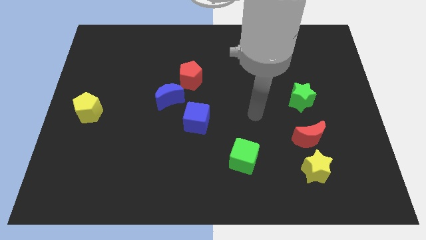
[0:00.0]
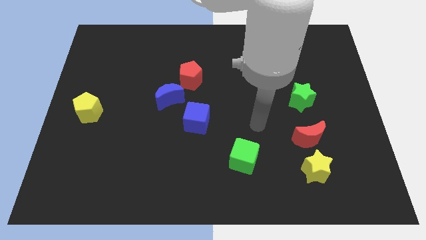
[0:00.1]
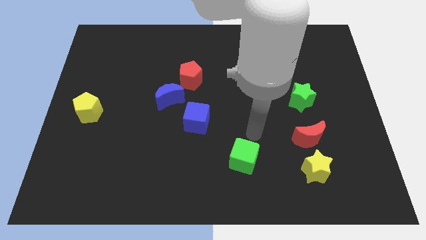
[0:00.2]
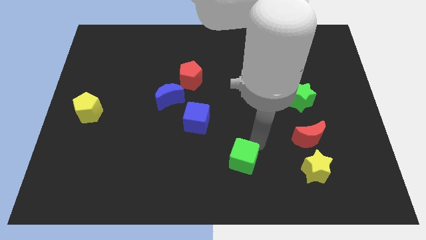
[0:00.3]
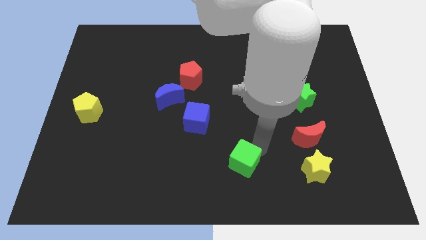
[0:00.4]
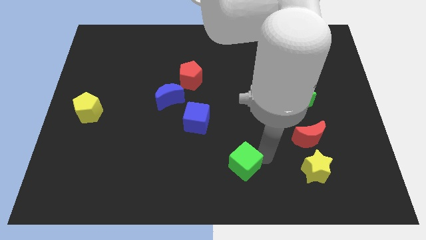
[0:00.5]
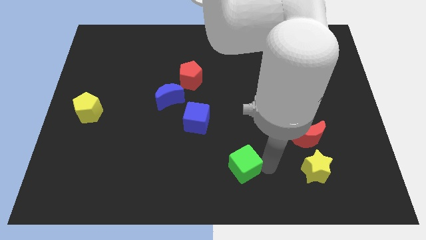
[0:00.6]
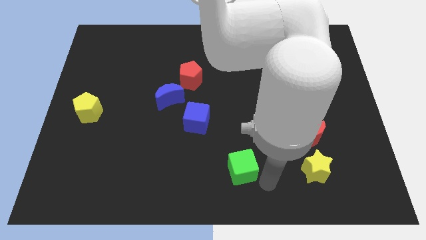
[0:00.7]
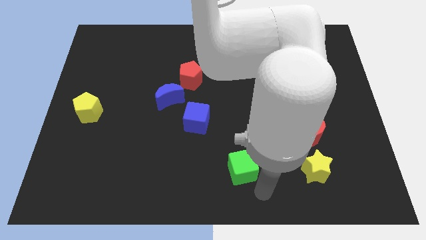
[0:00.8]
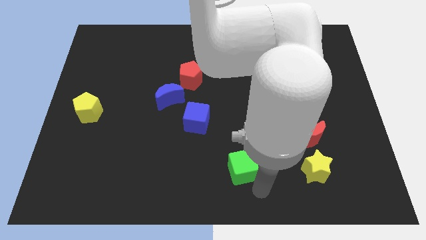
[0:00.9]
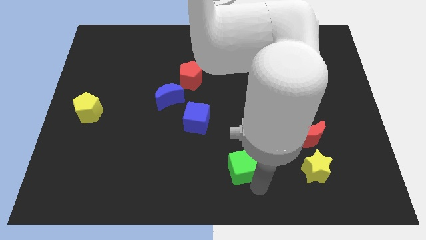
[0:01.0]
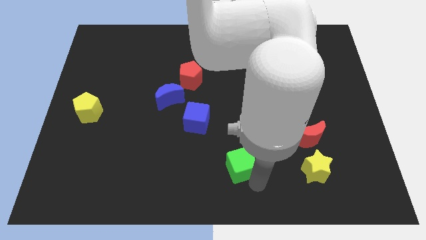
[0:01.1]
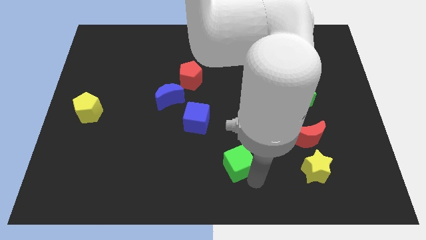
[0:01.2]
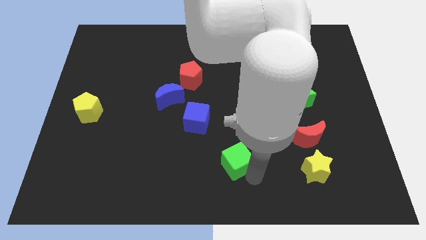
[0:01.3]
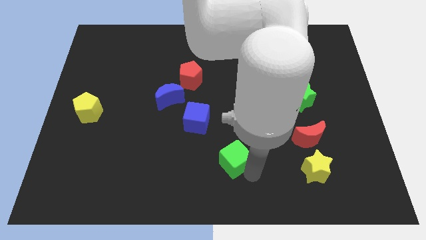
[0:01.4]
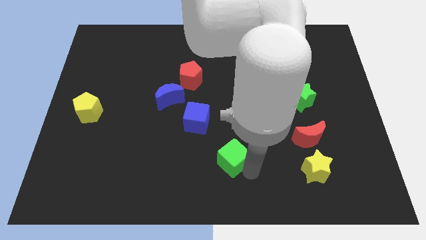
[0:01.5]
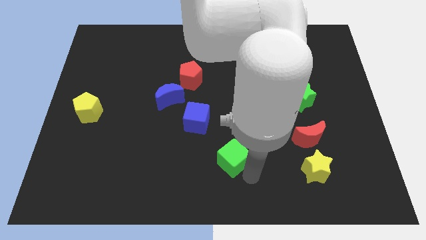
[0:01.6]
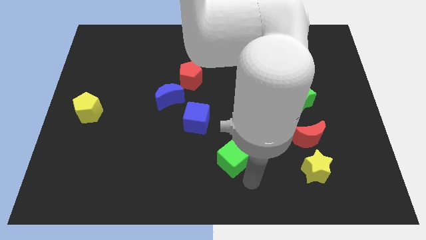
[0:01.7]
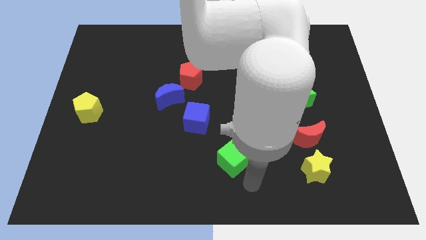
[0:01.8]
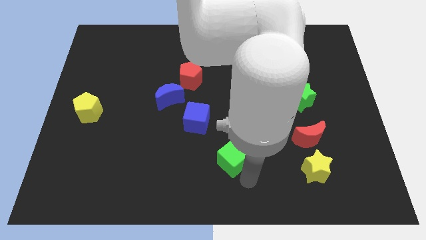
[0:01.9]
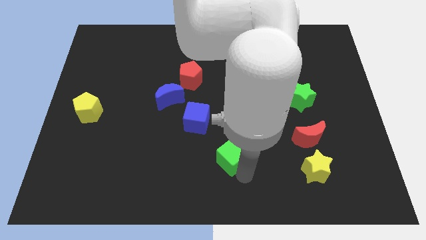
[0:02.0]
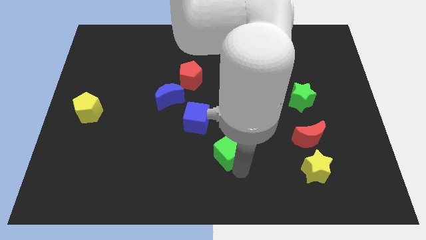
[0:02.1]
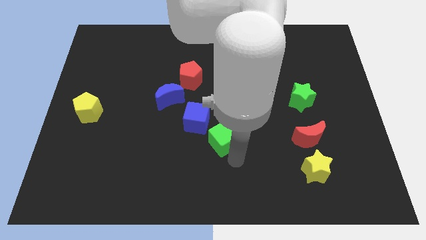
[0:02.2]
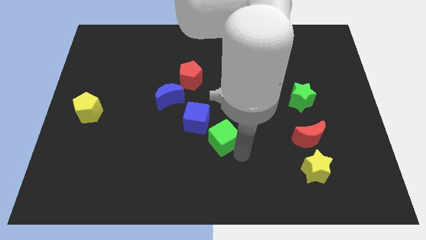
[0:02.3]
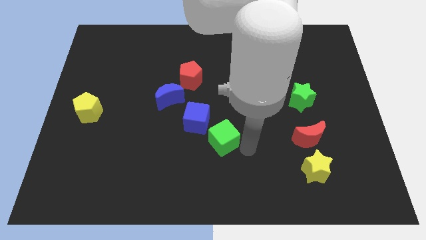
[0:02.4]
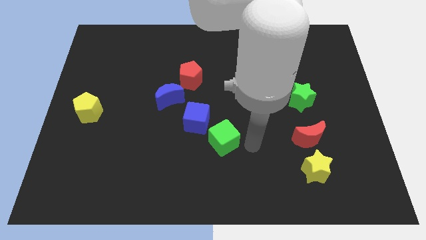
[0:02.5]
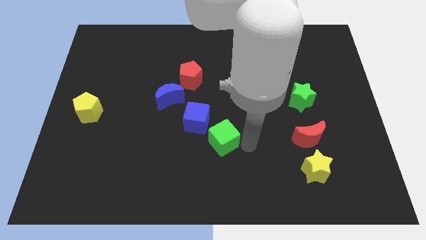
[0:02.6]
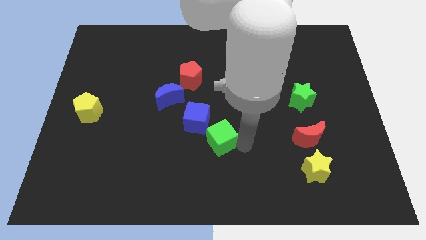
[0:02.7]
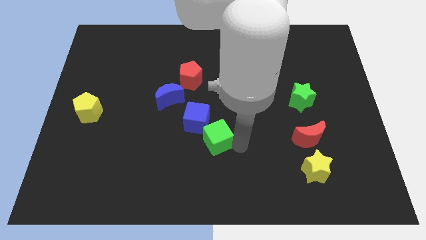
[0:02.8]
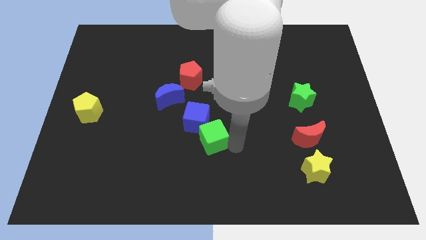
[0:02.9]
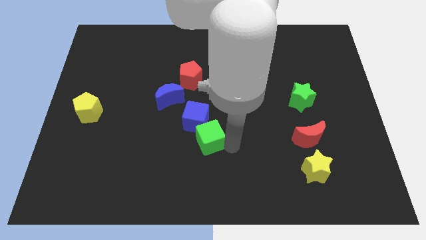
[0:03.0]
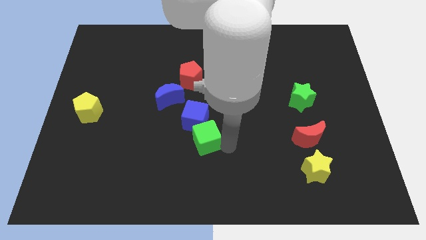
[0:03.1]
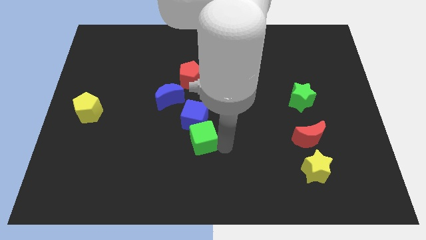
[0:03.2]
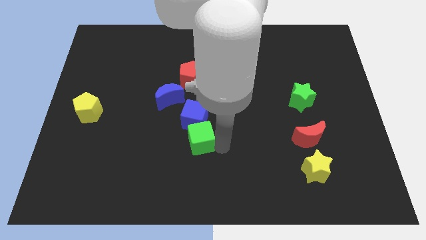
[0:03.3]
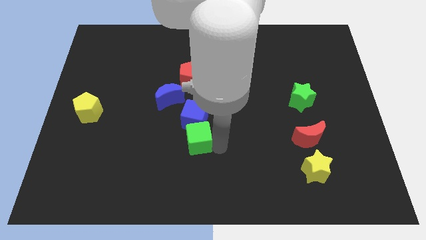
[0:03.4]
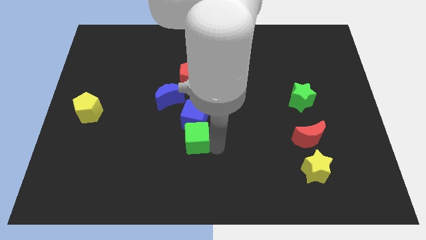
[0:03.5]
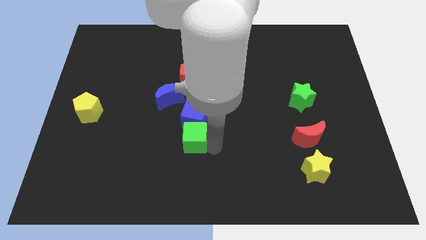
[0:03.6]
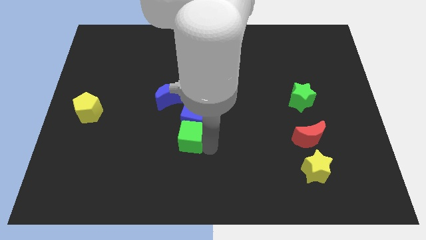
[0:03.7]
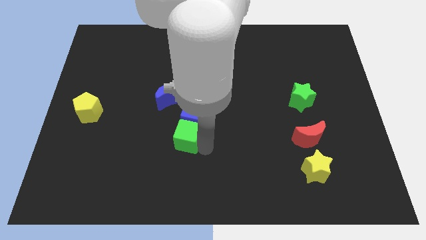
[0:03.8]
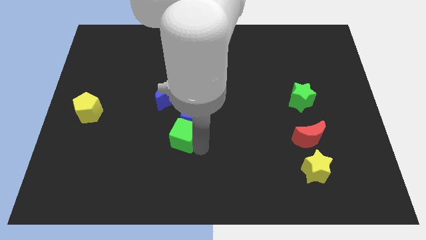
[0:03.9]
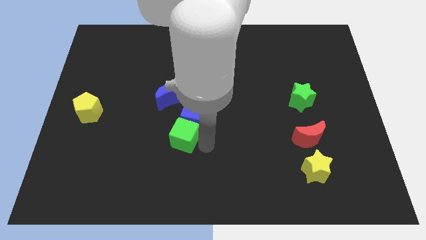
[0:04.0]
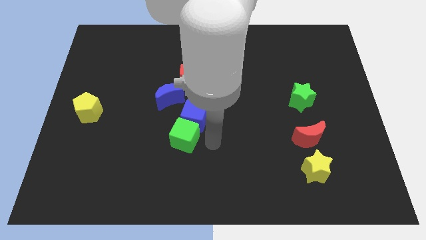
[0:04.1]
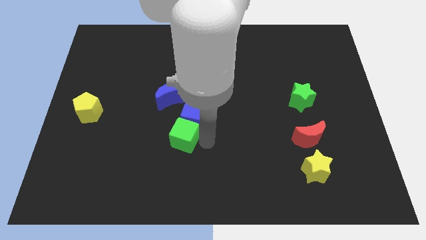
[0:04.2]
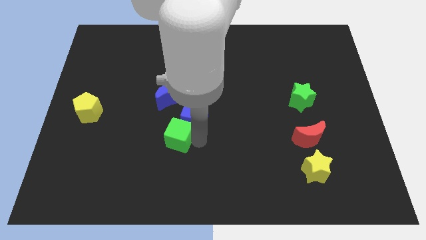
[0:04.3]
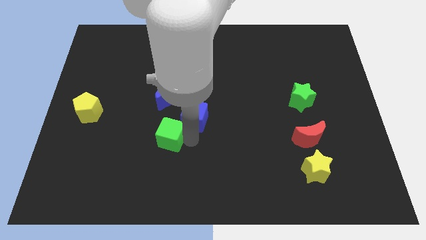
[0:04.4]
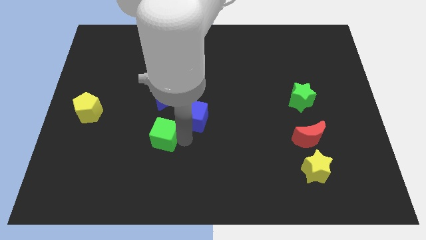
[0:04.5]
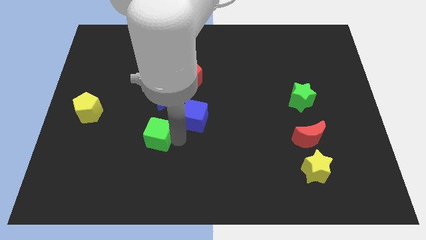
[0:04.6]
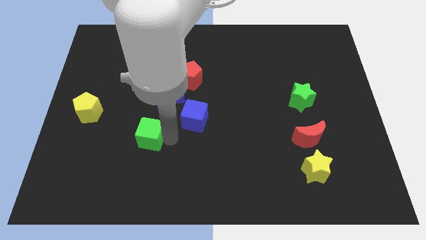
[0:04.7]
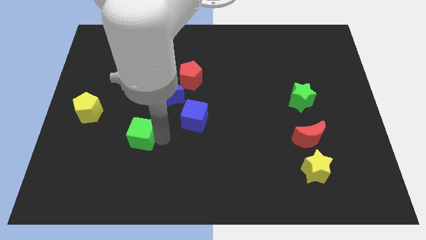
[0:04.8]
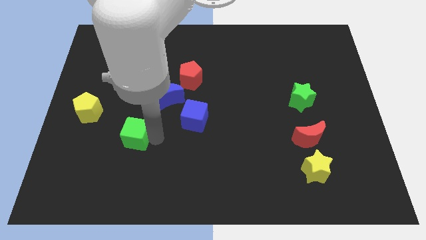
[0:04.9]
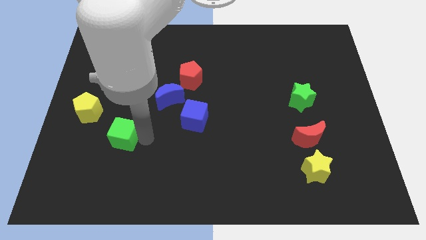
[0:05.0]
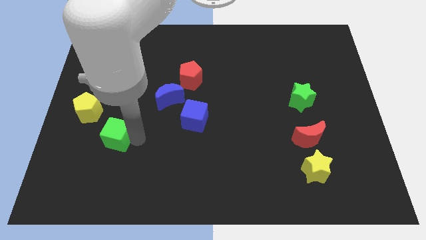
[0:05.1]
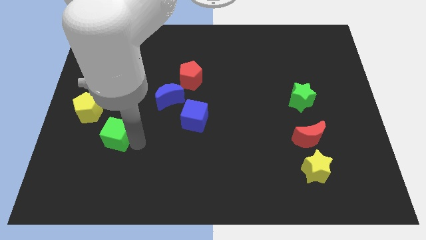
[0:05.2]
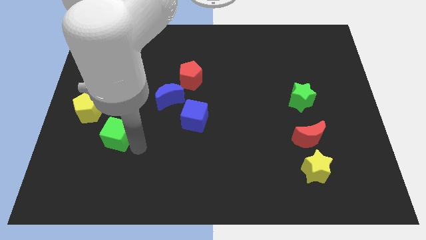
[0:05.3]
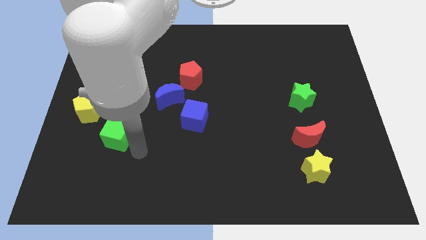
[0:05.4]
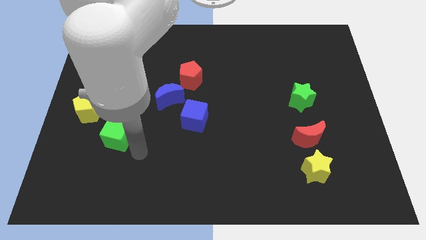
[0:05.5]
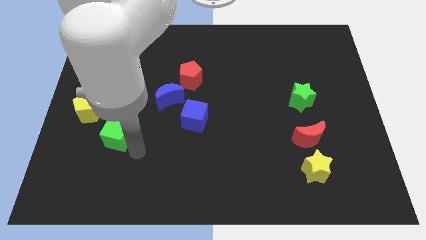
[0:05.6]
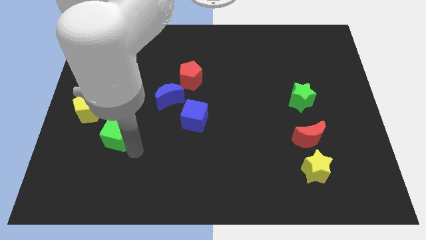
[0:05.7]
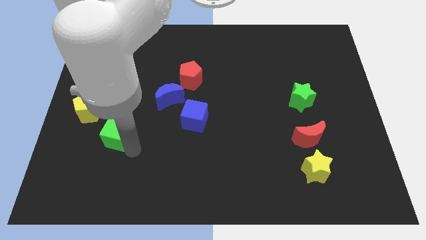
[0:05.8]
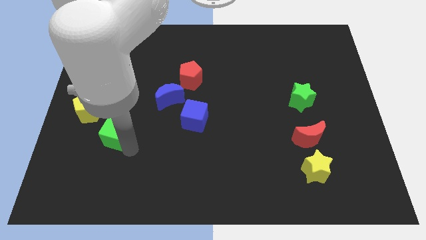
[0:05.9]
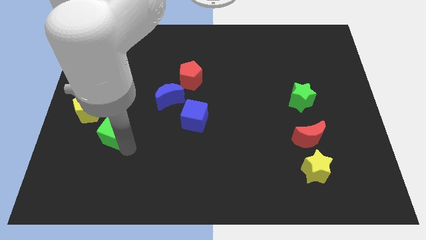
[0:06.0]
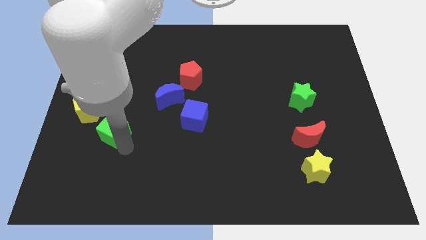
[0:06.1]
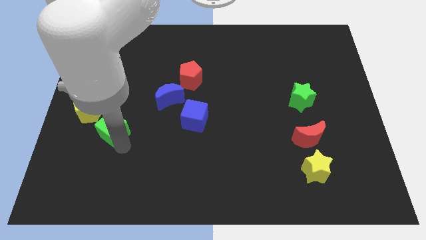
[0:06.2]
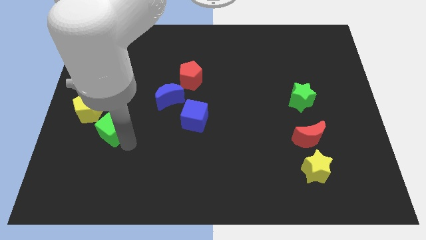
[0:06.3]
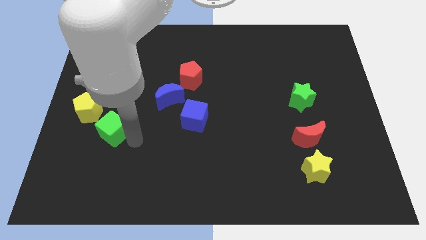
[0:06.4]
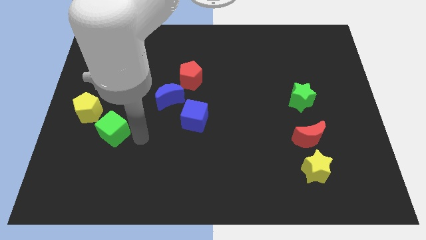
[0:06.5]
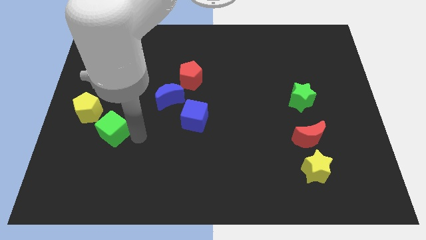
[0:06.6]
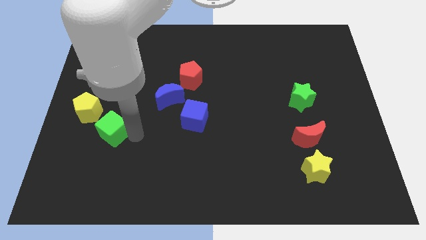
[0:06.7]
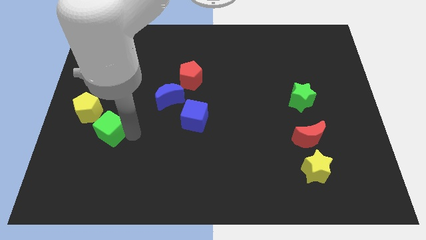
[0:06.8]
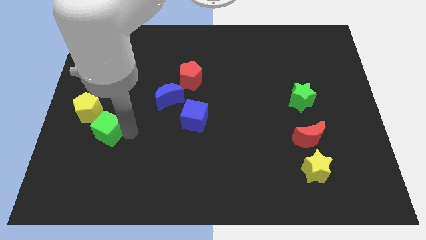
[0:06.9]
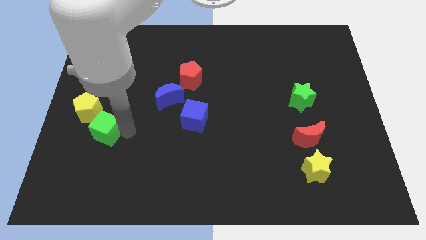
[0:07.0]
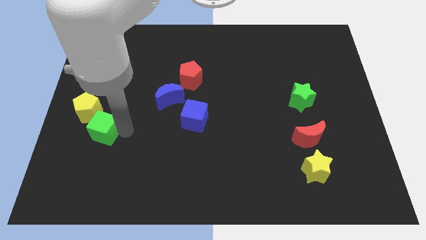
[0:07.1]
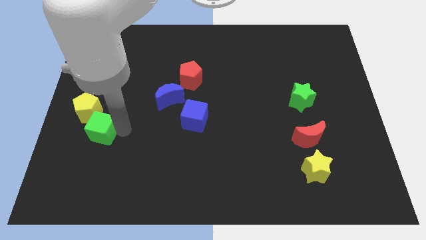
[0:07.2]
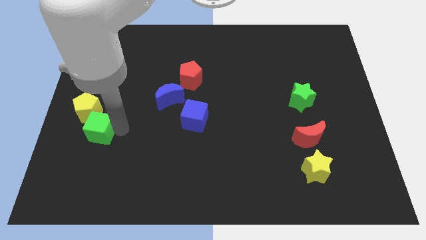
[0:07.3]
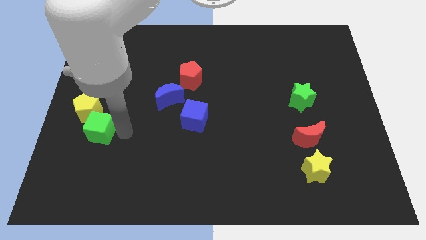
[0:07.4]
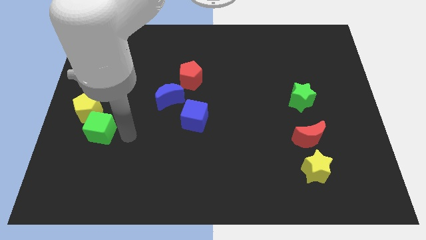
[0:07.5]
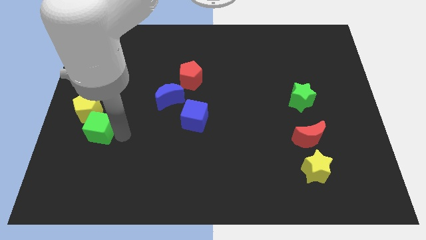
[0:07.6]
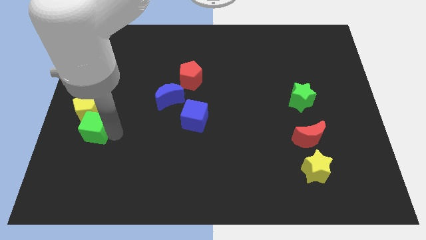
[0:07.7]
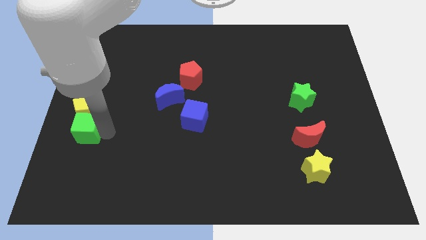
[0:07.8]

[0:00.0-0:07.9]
slide the green cube to the left side of the board
